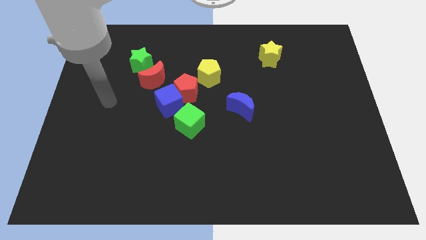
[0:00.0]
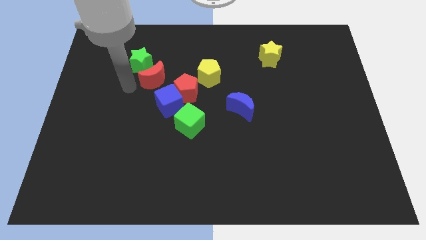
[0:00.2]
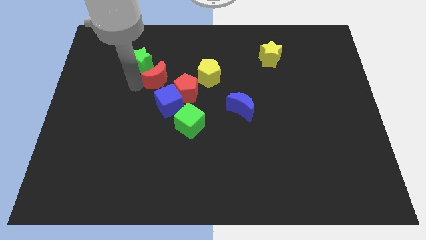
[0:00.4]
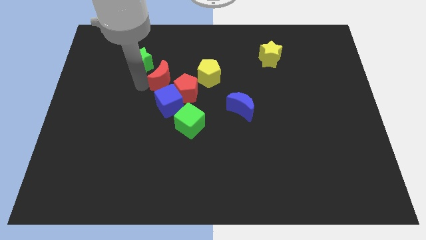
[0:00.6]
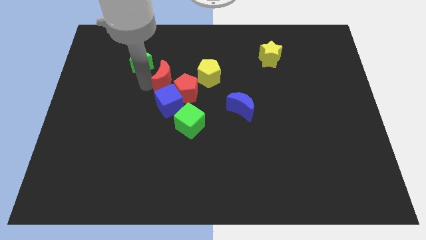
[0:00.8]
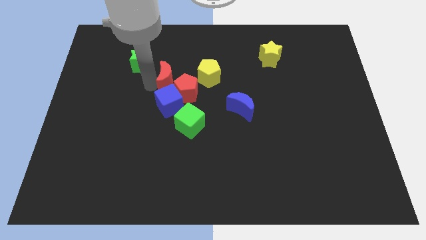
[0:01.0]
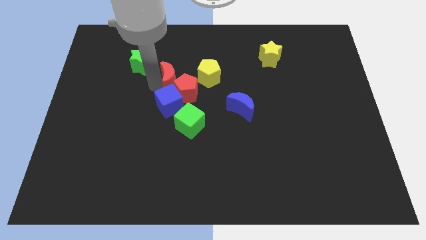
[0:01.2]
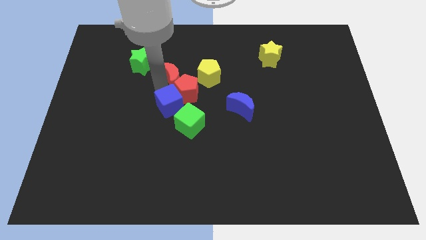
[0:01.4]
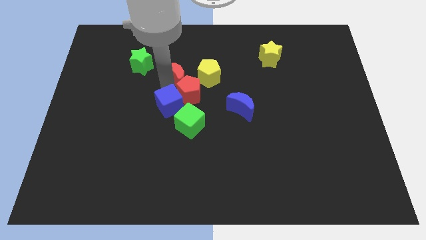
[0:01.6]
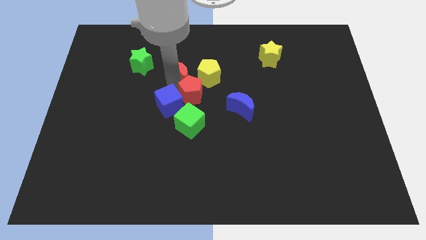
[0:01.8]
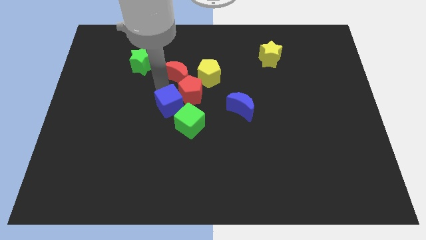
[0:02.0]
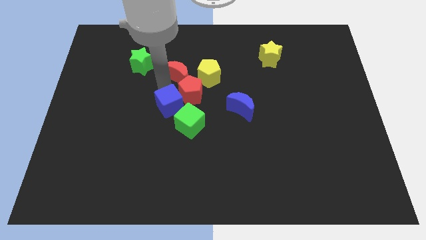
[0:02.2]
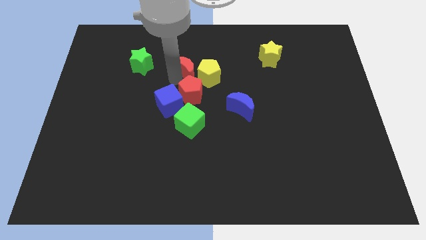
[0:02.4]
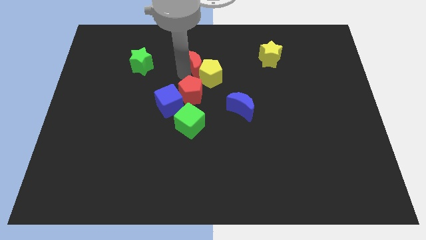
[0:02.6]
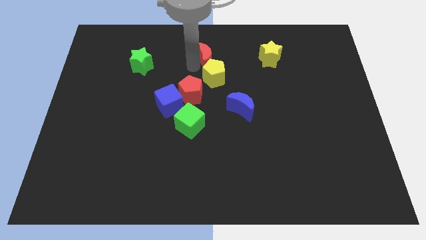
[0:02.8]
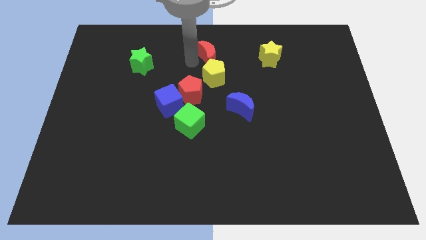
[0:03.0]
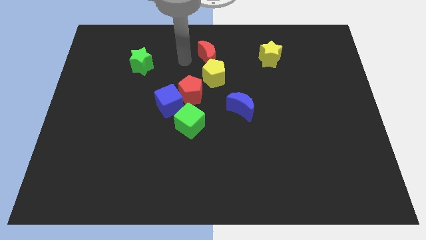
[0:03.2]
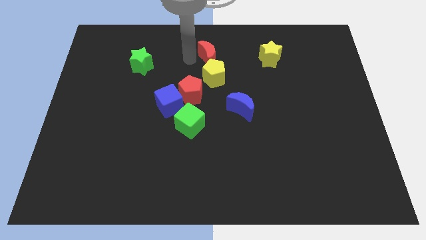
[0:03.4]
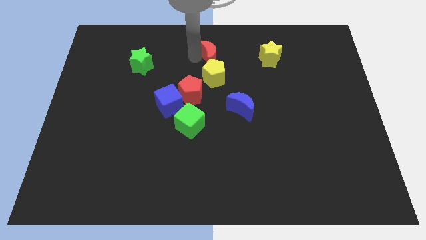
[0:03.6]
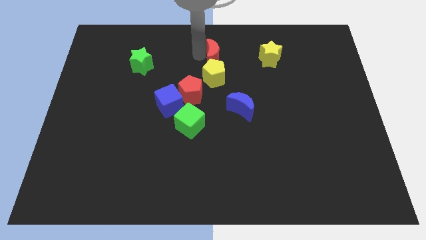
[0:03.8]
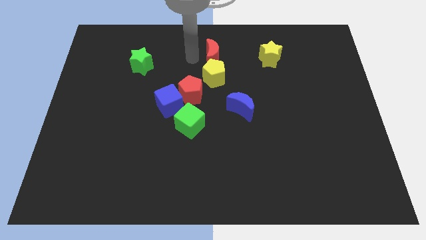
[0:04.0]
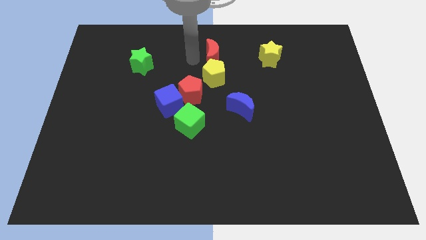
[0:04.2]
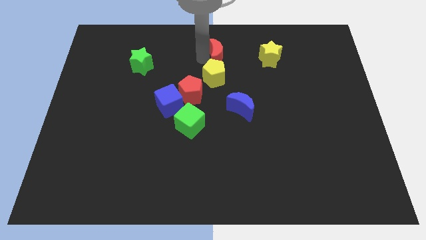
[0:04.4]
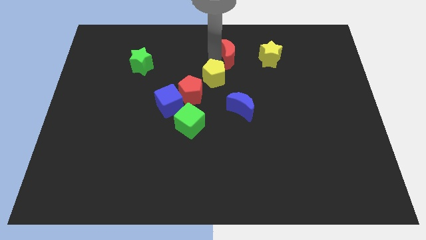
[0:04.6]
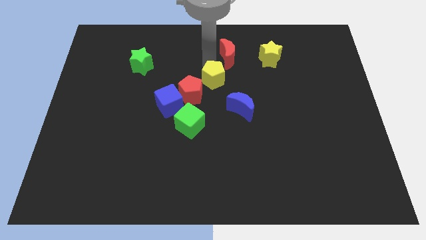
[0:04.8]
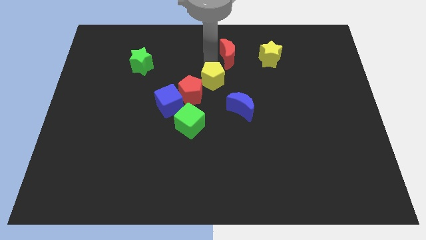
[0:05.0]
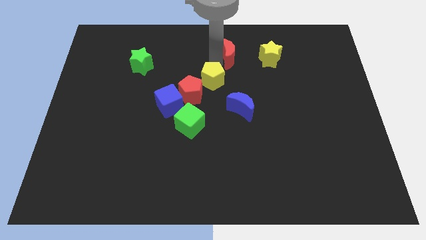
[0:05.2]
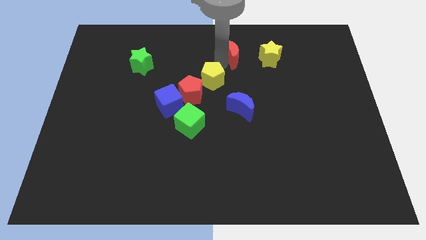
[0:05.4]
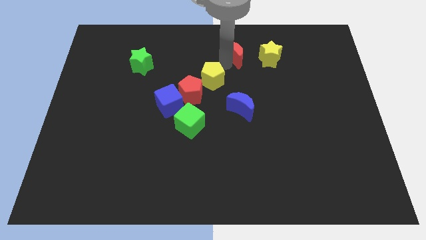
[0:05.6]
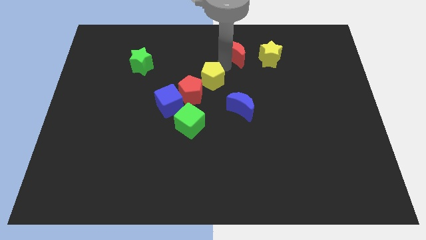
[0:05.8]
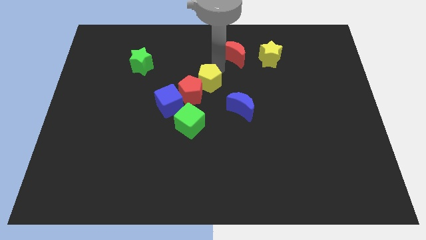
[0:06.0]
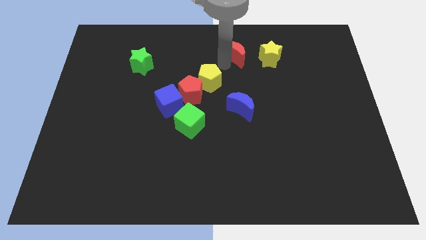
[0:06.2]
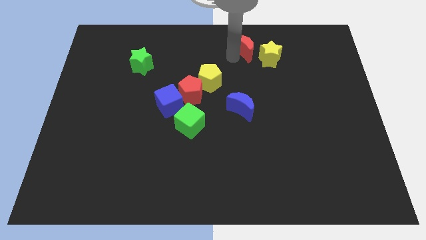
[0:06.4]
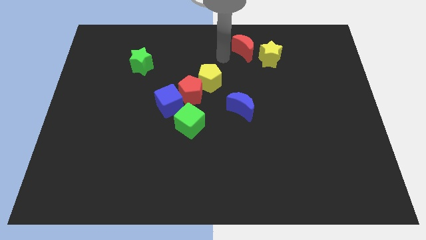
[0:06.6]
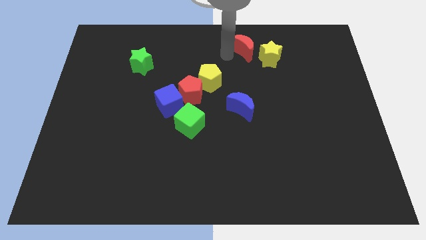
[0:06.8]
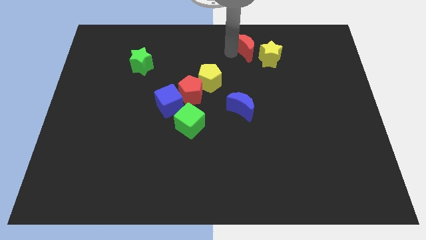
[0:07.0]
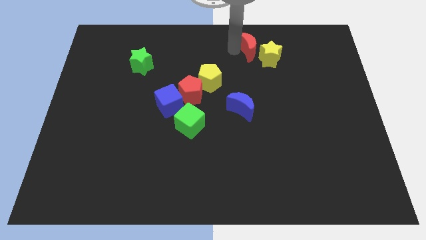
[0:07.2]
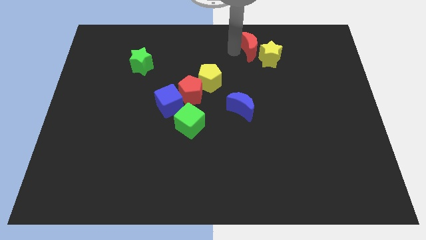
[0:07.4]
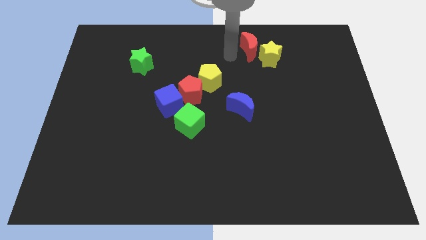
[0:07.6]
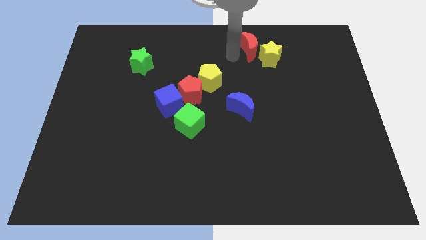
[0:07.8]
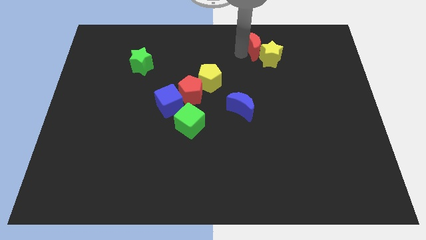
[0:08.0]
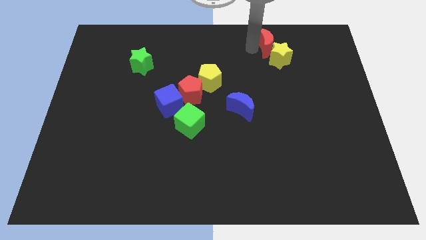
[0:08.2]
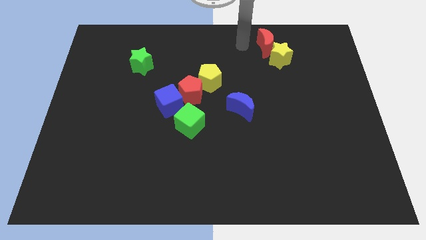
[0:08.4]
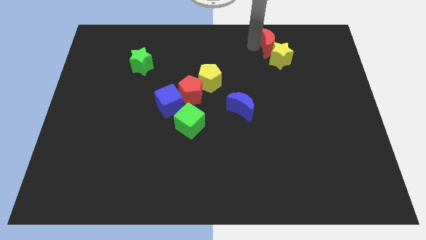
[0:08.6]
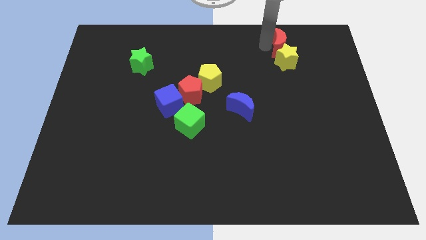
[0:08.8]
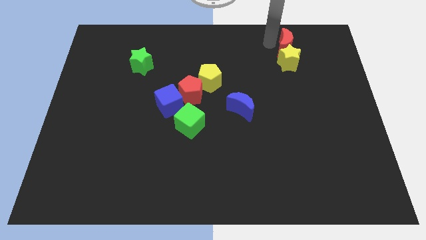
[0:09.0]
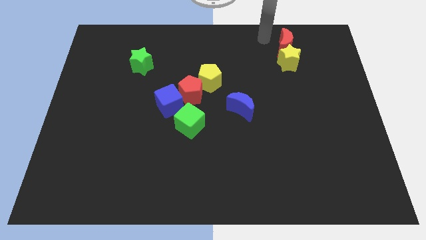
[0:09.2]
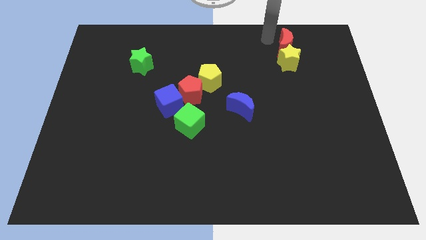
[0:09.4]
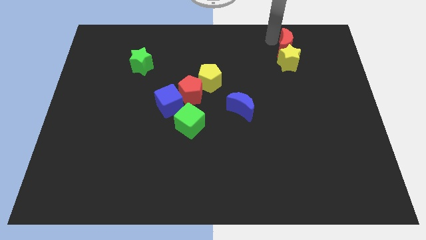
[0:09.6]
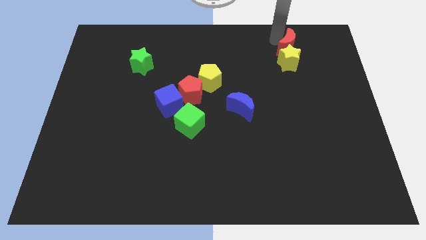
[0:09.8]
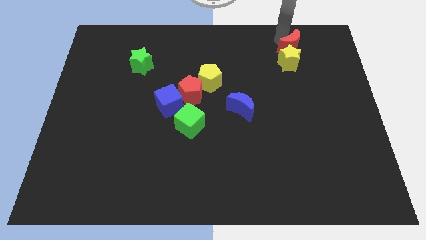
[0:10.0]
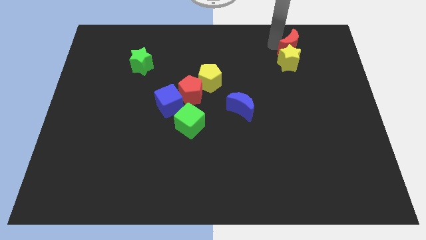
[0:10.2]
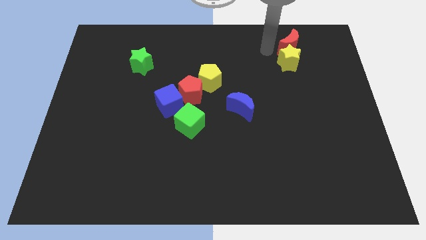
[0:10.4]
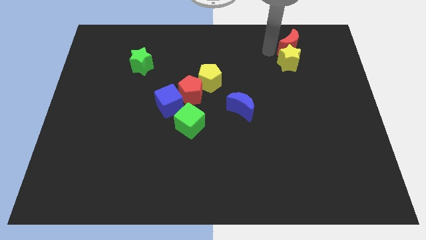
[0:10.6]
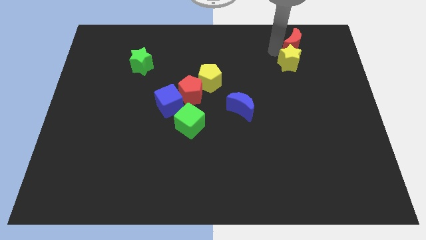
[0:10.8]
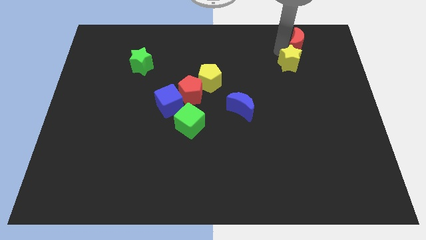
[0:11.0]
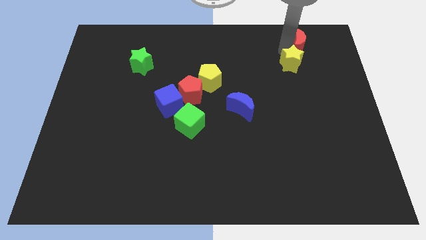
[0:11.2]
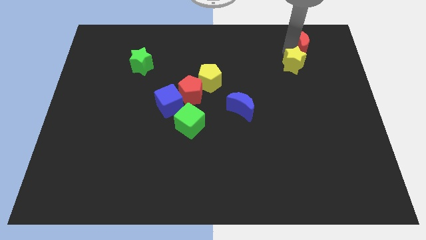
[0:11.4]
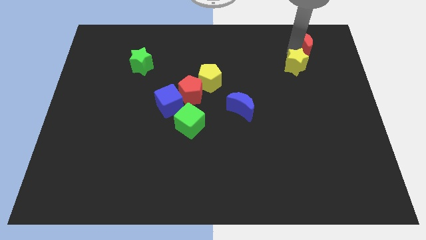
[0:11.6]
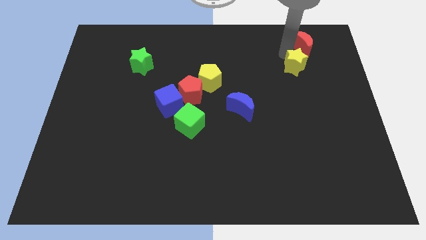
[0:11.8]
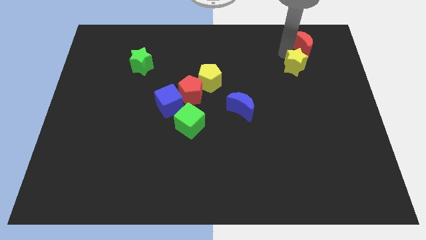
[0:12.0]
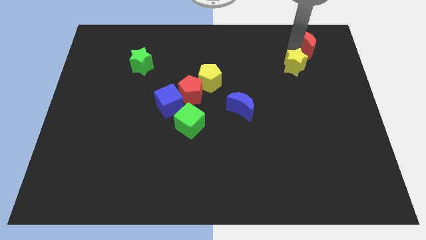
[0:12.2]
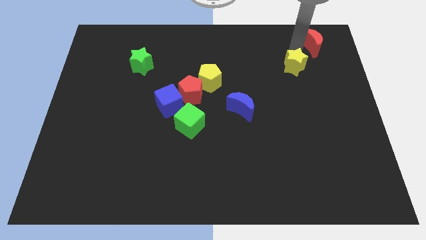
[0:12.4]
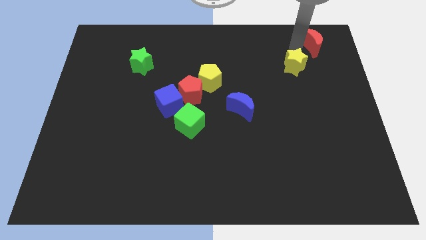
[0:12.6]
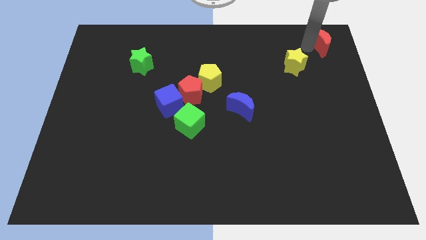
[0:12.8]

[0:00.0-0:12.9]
put the red moon to the top right

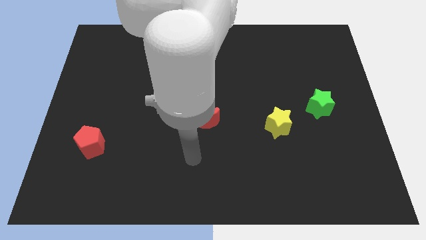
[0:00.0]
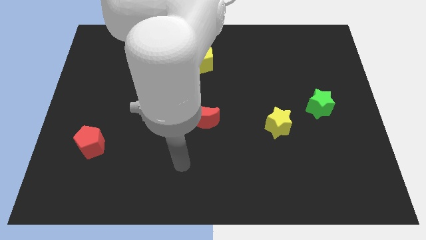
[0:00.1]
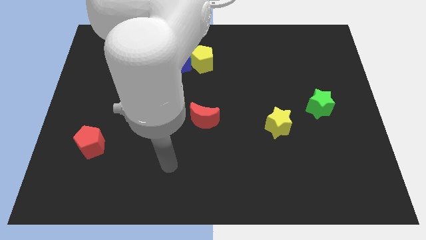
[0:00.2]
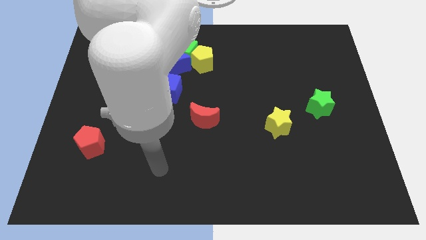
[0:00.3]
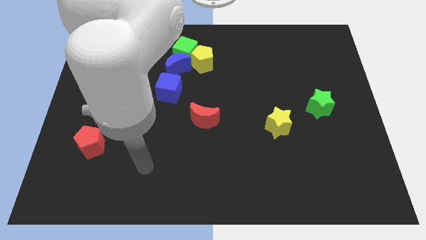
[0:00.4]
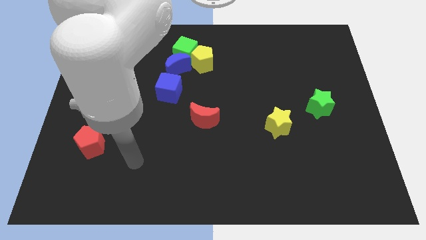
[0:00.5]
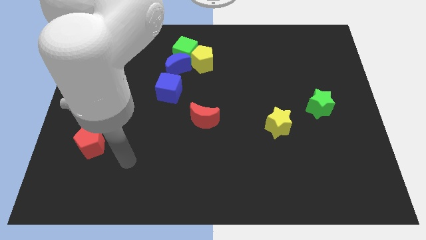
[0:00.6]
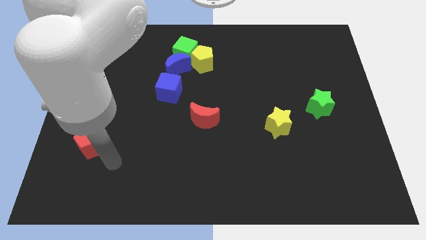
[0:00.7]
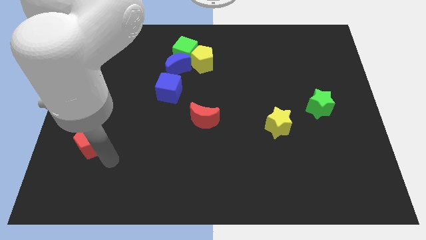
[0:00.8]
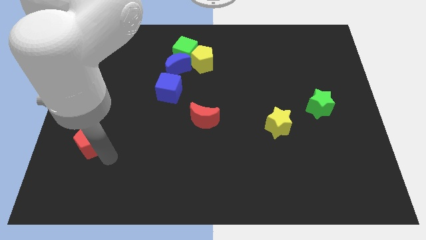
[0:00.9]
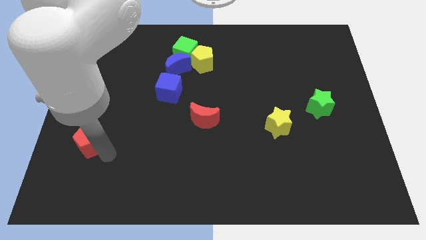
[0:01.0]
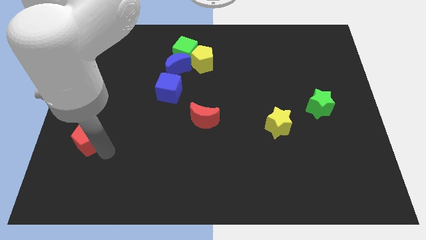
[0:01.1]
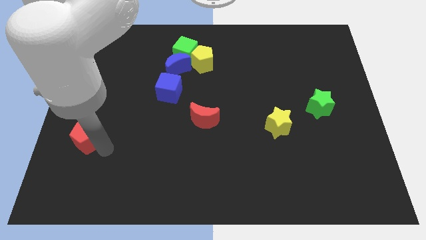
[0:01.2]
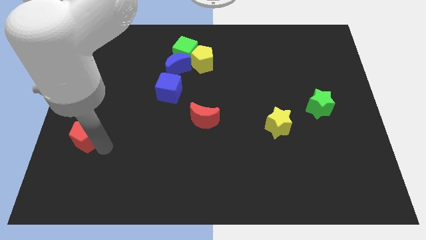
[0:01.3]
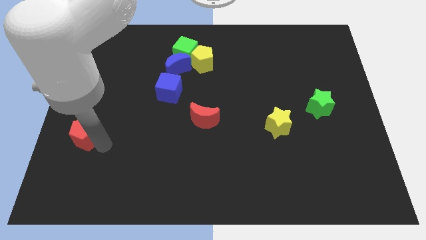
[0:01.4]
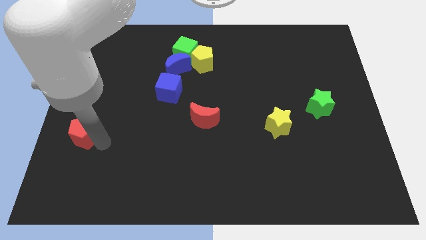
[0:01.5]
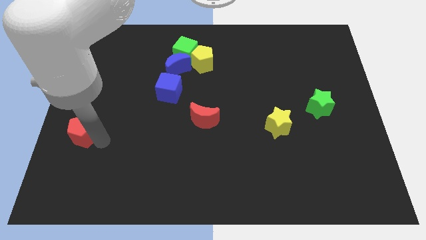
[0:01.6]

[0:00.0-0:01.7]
put the red pentagon to the left side of the board
